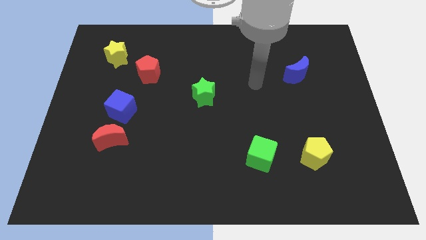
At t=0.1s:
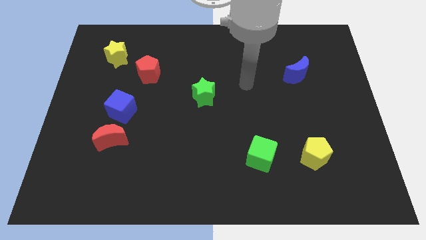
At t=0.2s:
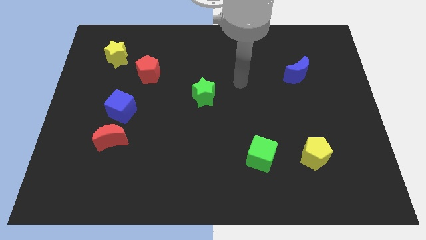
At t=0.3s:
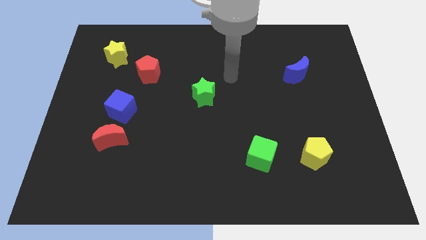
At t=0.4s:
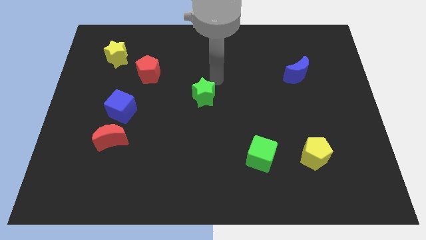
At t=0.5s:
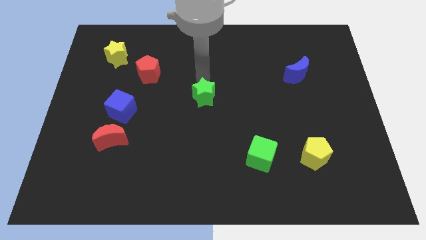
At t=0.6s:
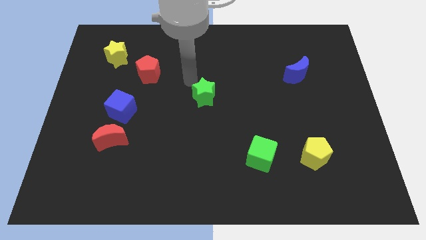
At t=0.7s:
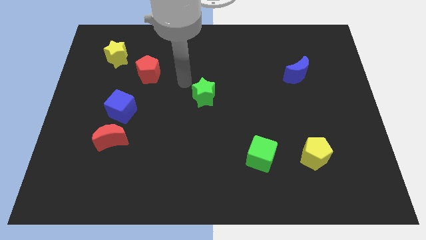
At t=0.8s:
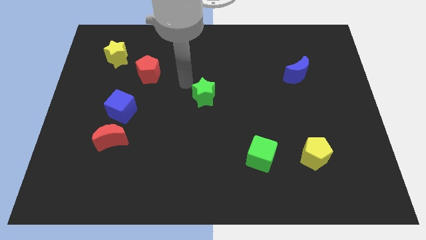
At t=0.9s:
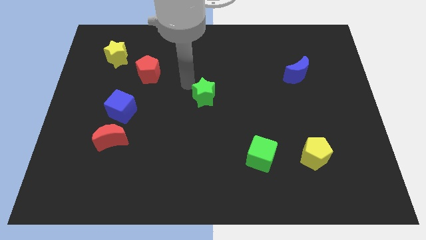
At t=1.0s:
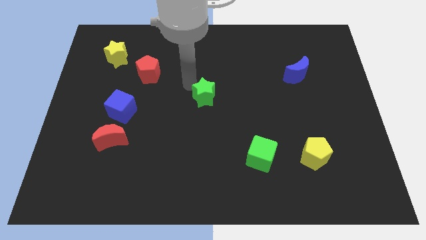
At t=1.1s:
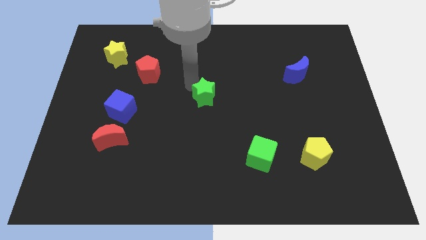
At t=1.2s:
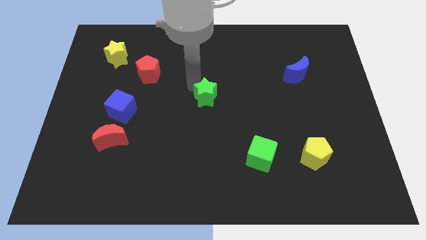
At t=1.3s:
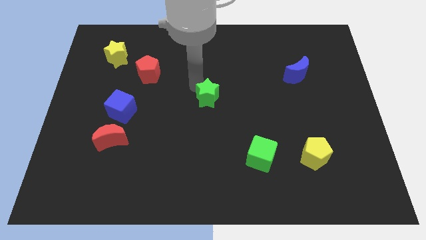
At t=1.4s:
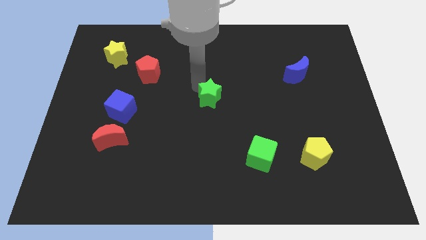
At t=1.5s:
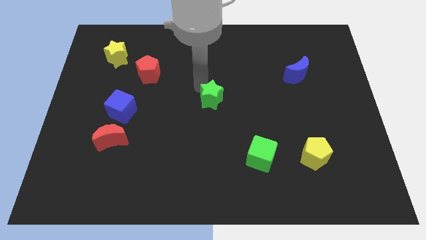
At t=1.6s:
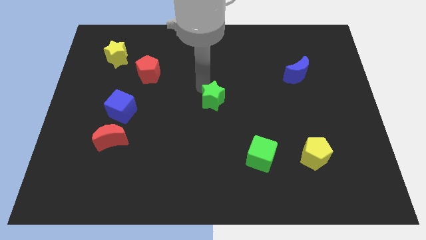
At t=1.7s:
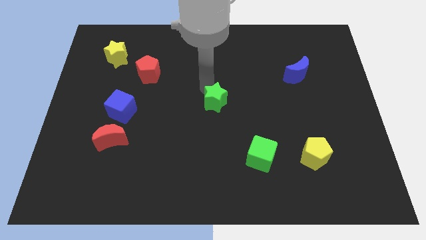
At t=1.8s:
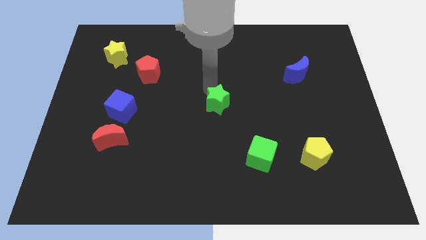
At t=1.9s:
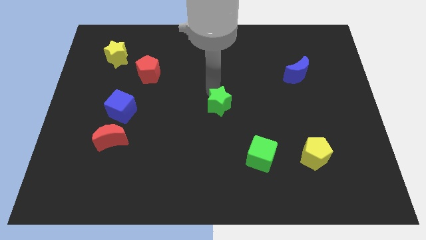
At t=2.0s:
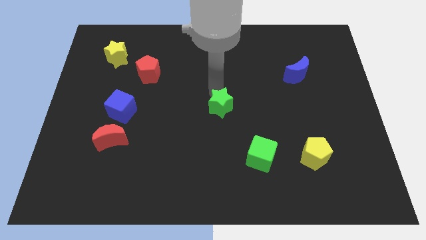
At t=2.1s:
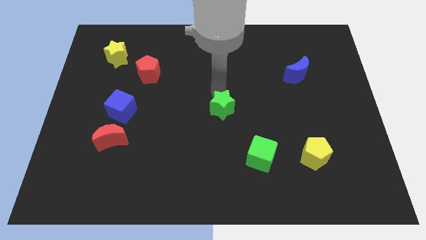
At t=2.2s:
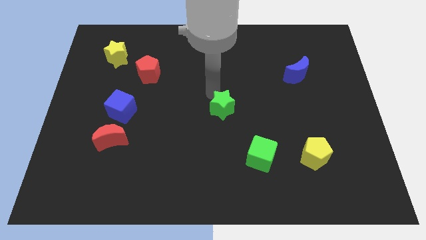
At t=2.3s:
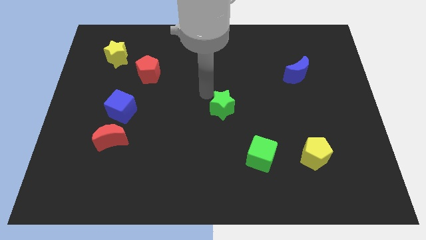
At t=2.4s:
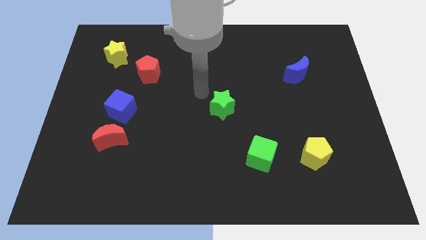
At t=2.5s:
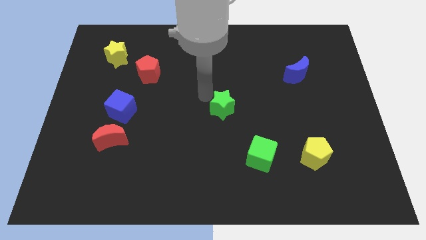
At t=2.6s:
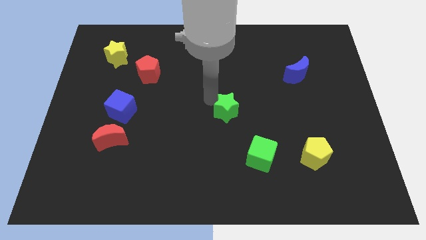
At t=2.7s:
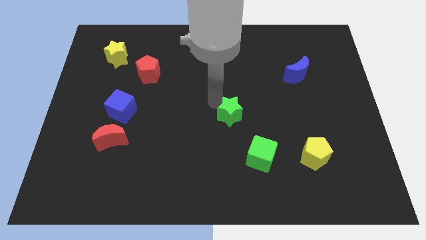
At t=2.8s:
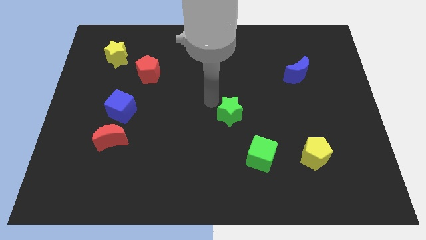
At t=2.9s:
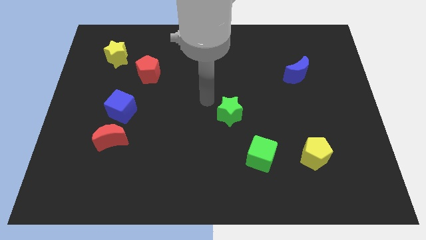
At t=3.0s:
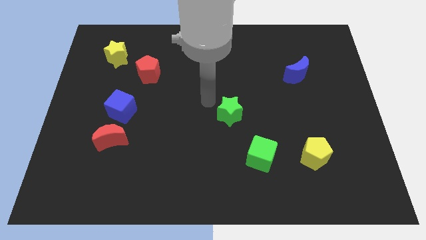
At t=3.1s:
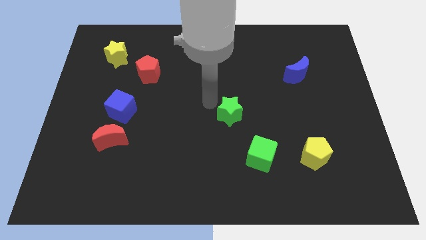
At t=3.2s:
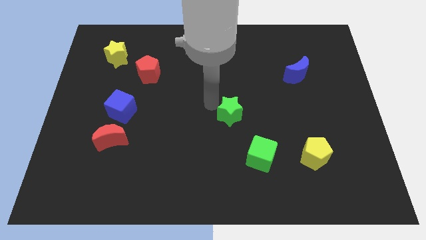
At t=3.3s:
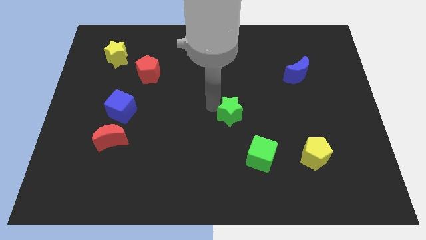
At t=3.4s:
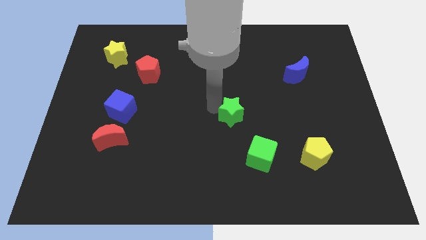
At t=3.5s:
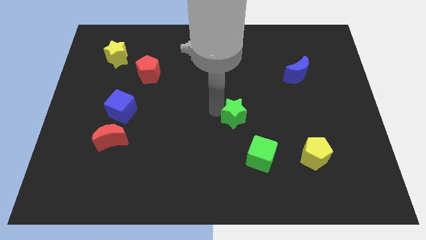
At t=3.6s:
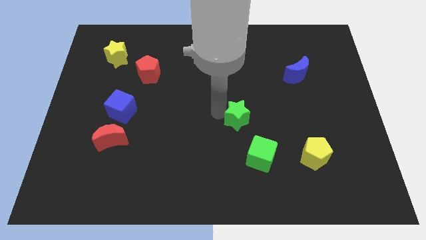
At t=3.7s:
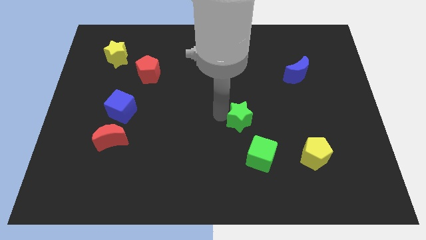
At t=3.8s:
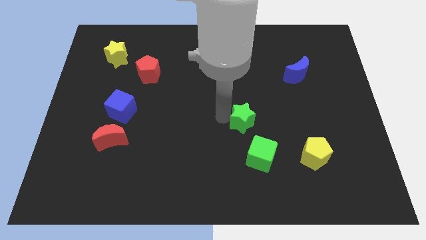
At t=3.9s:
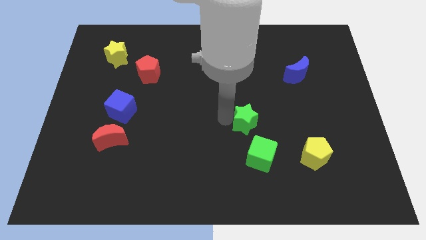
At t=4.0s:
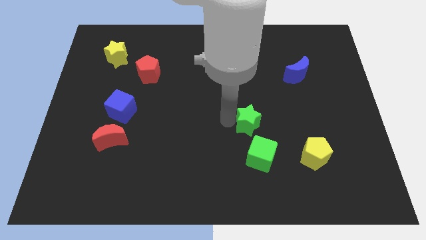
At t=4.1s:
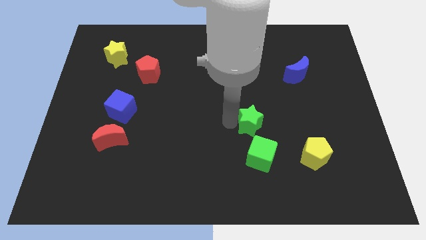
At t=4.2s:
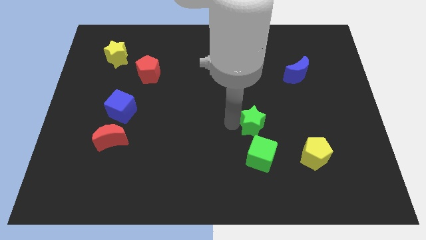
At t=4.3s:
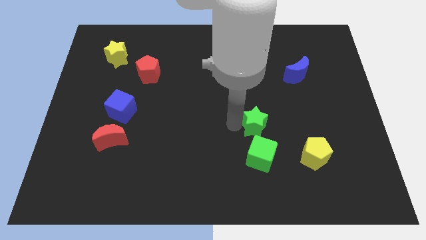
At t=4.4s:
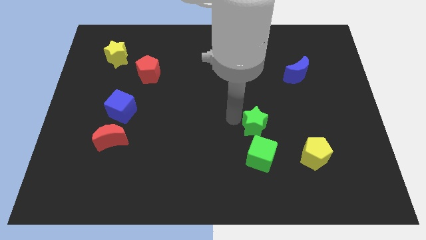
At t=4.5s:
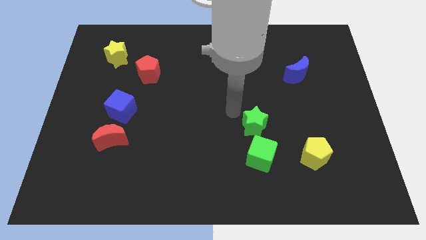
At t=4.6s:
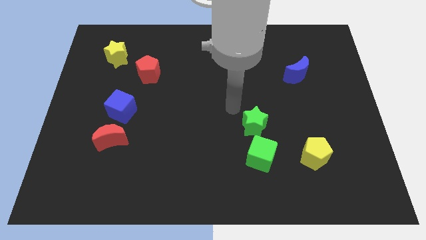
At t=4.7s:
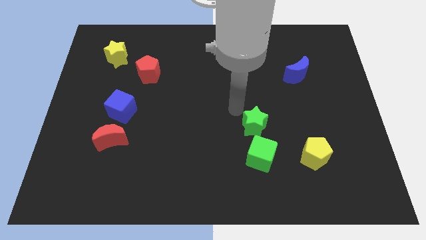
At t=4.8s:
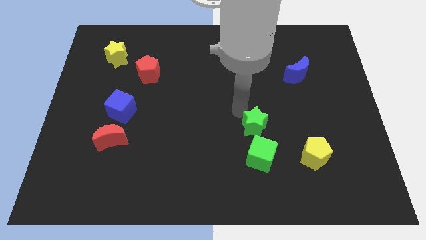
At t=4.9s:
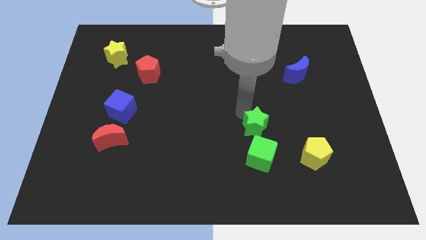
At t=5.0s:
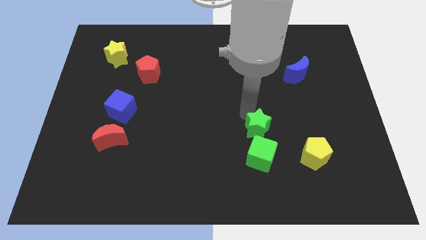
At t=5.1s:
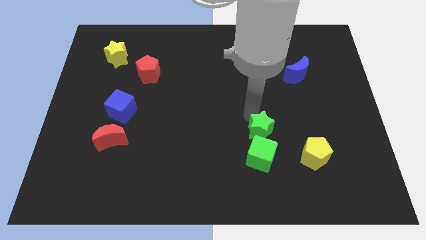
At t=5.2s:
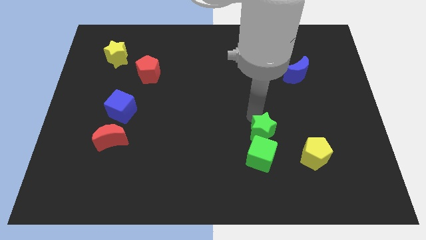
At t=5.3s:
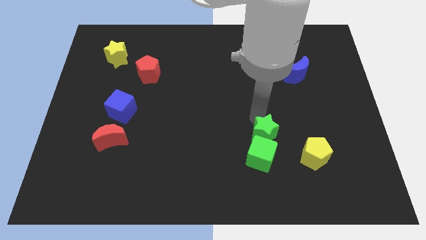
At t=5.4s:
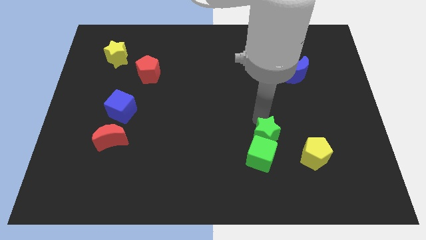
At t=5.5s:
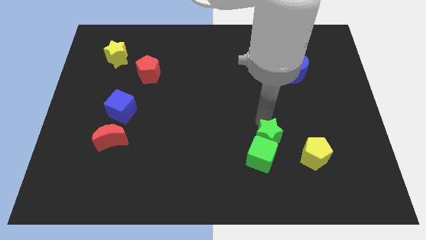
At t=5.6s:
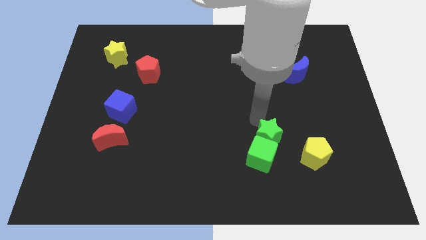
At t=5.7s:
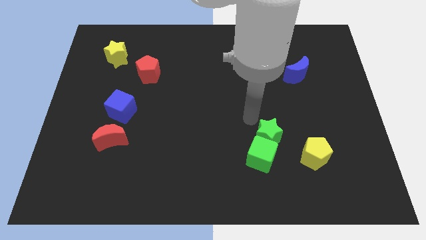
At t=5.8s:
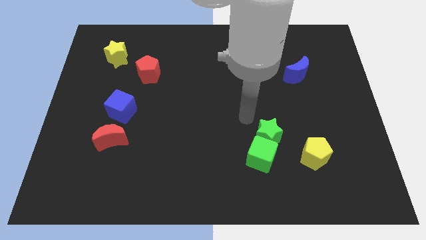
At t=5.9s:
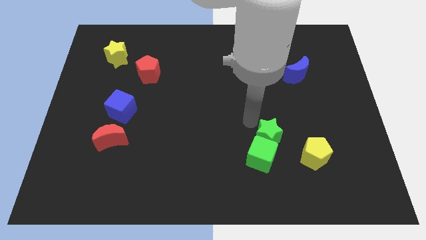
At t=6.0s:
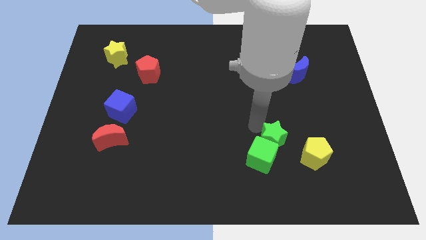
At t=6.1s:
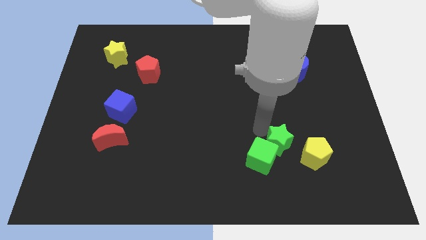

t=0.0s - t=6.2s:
slide the green star diagonally down and right

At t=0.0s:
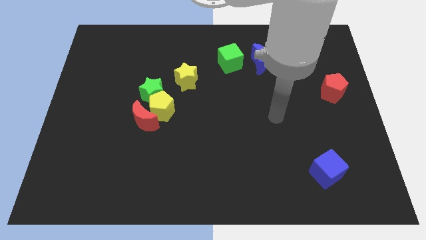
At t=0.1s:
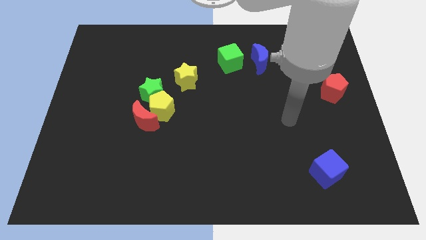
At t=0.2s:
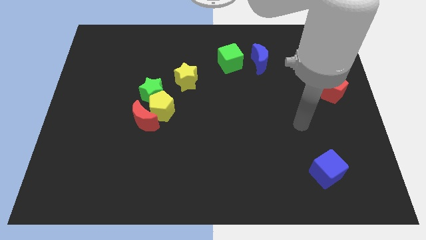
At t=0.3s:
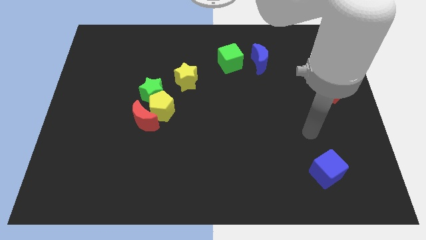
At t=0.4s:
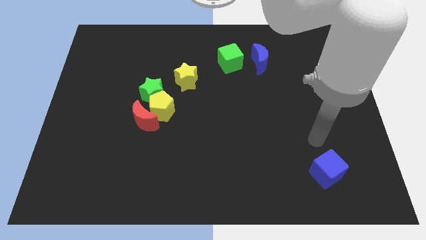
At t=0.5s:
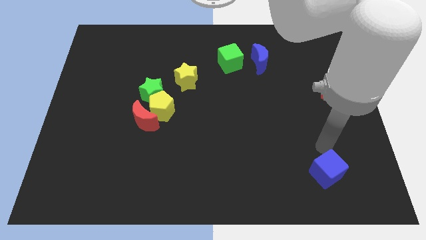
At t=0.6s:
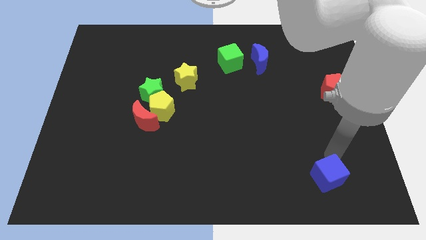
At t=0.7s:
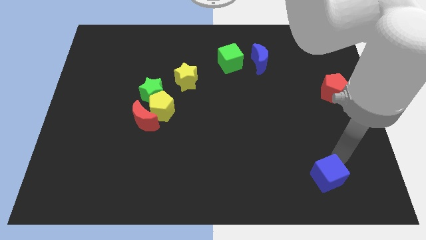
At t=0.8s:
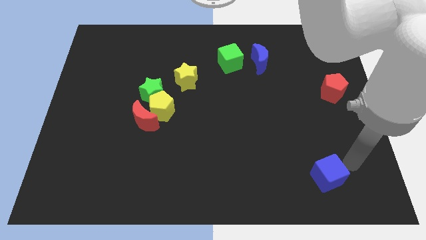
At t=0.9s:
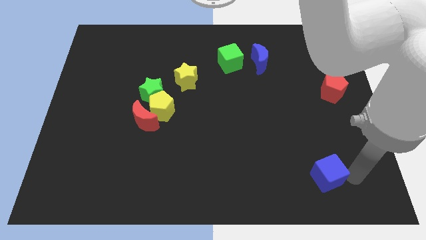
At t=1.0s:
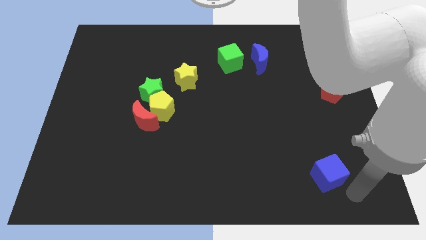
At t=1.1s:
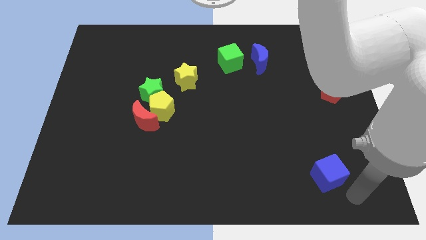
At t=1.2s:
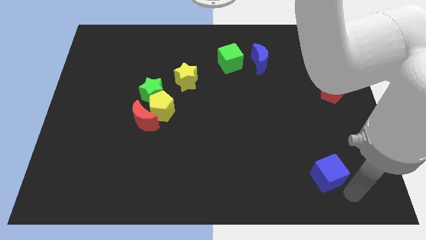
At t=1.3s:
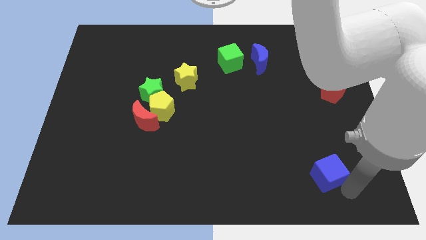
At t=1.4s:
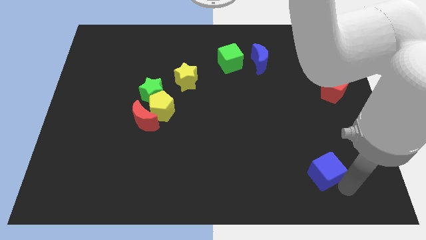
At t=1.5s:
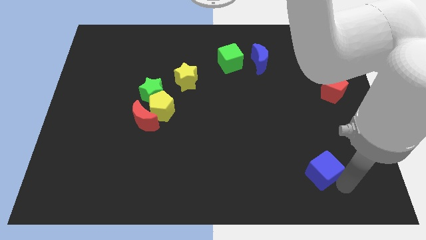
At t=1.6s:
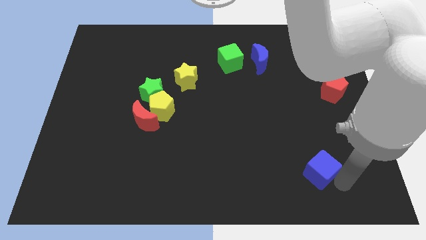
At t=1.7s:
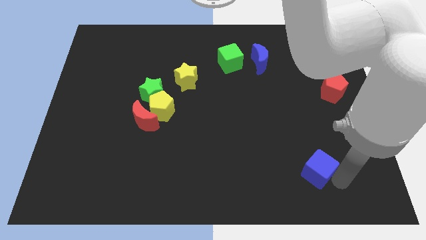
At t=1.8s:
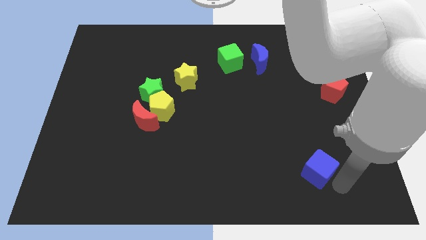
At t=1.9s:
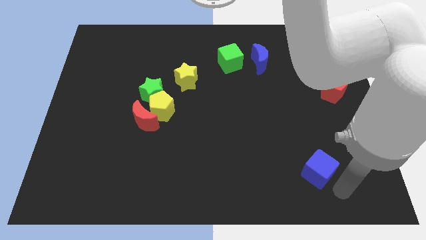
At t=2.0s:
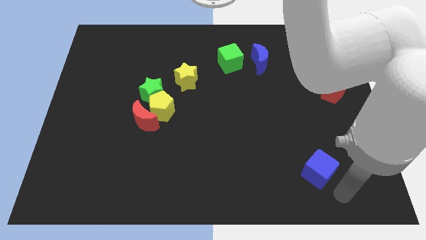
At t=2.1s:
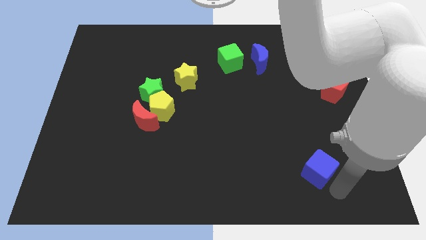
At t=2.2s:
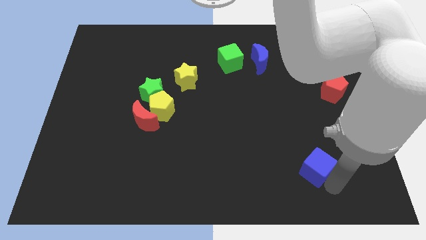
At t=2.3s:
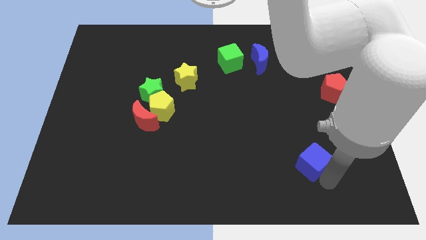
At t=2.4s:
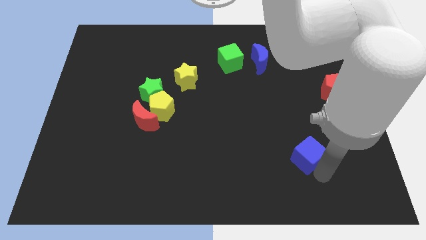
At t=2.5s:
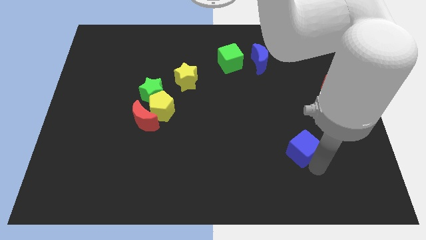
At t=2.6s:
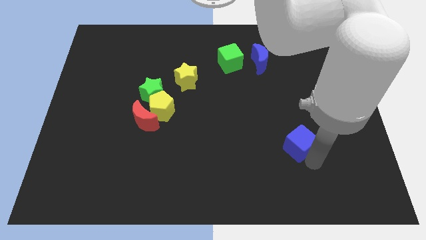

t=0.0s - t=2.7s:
slide the blue cube upwards and left diagonally a little
